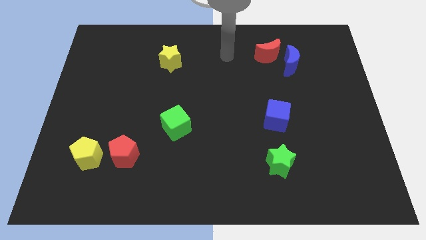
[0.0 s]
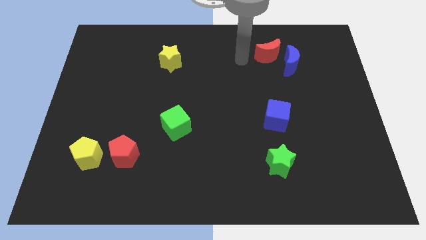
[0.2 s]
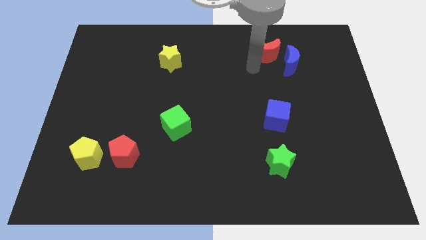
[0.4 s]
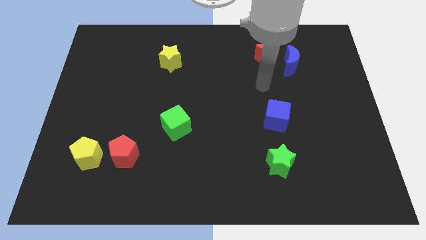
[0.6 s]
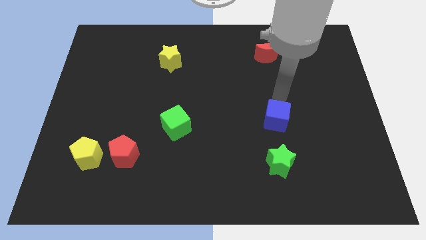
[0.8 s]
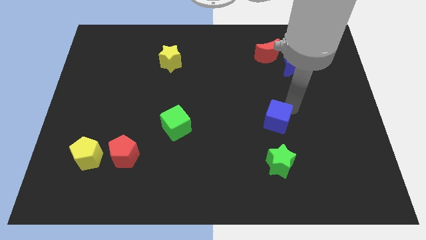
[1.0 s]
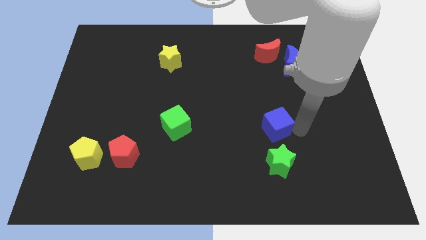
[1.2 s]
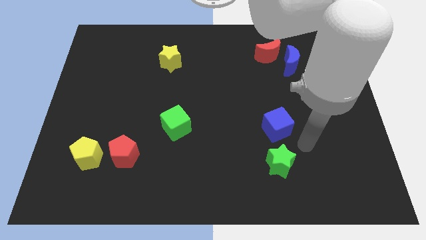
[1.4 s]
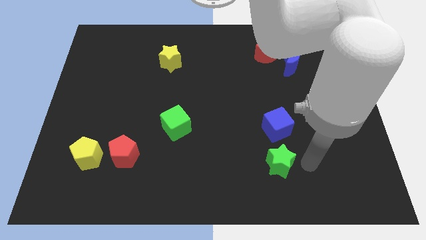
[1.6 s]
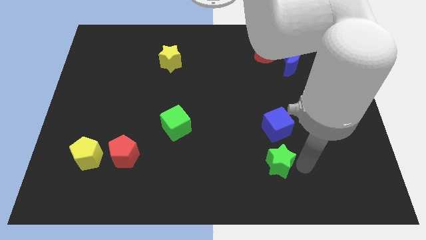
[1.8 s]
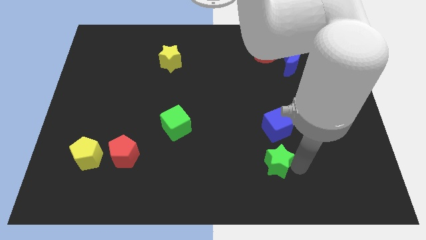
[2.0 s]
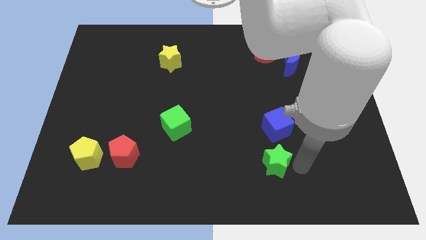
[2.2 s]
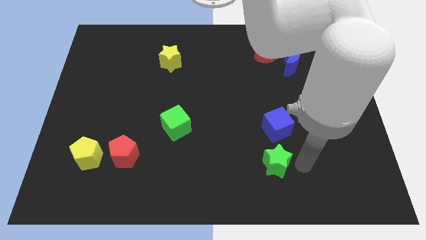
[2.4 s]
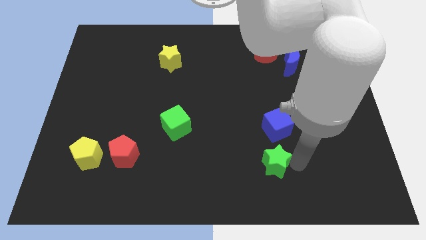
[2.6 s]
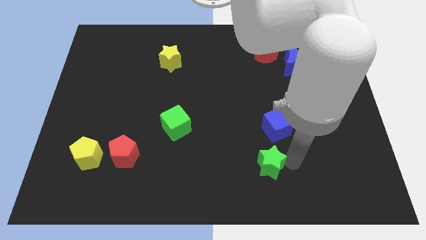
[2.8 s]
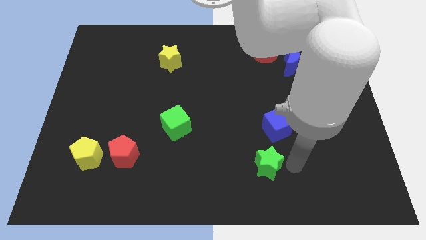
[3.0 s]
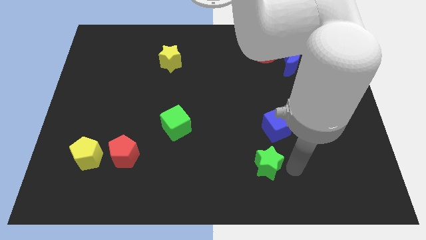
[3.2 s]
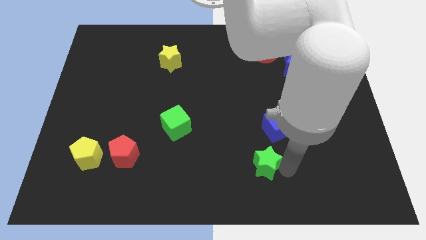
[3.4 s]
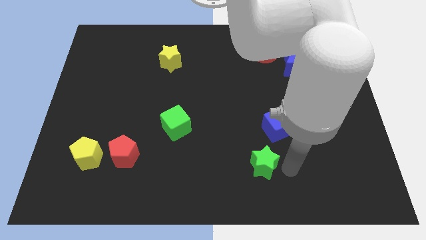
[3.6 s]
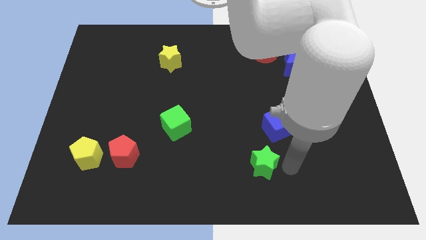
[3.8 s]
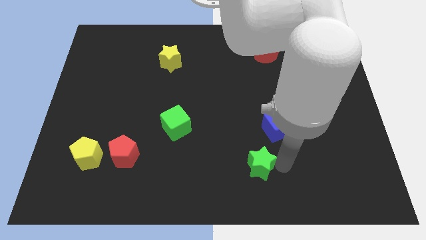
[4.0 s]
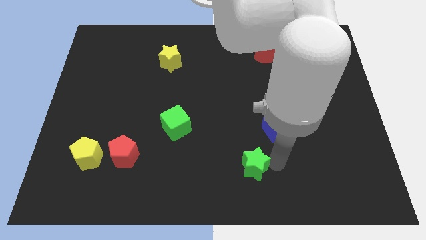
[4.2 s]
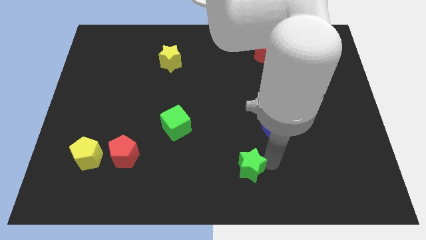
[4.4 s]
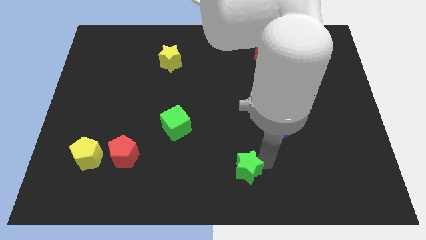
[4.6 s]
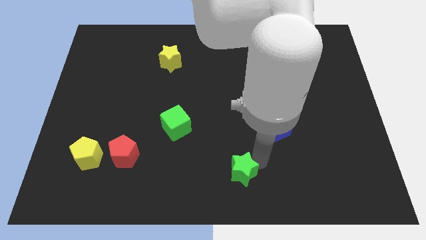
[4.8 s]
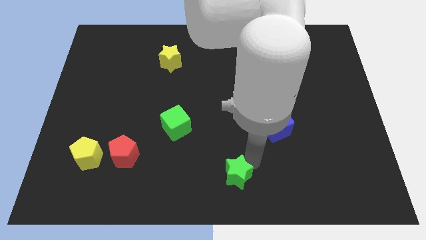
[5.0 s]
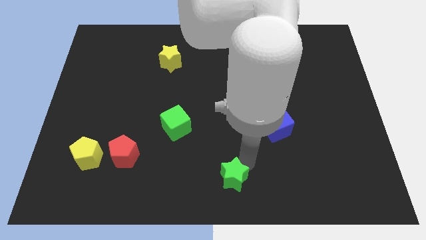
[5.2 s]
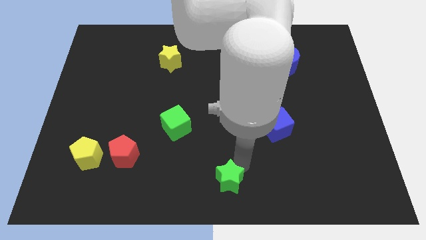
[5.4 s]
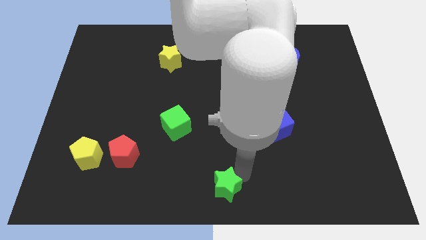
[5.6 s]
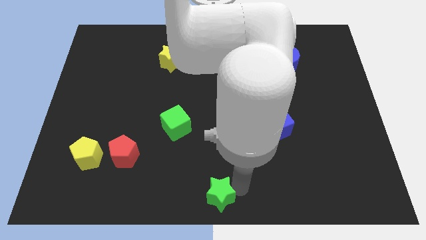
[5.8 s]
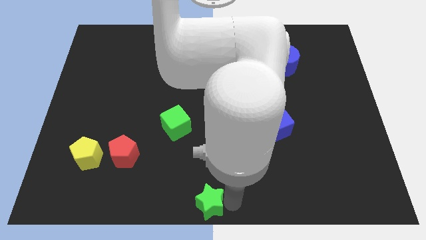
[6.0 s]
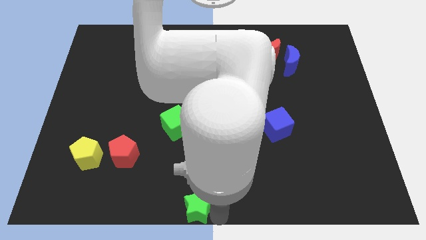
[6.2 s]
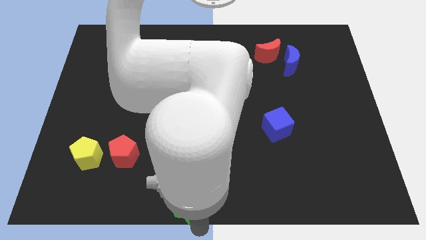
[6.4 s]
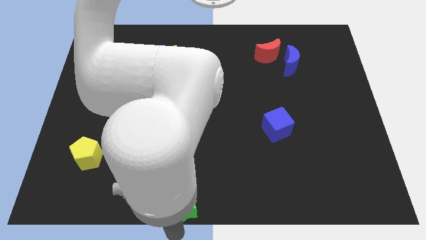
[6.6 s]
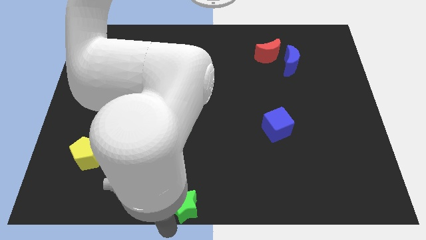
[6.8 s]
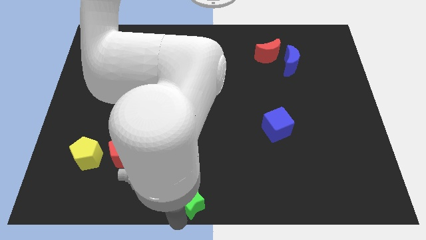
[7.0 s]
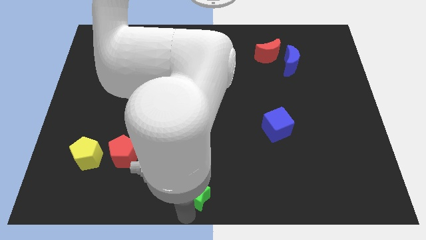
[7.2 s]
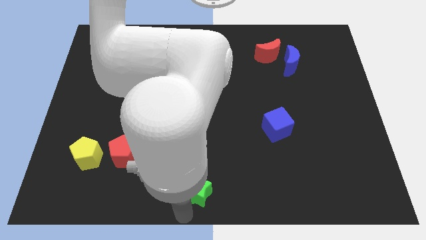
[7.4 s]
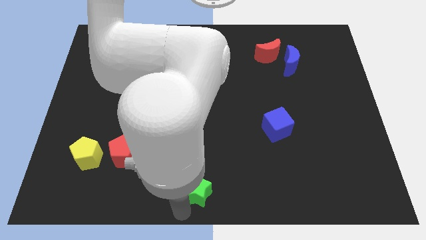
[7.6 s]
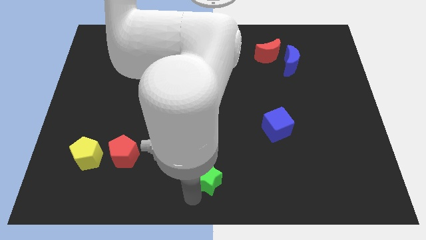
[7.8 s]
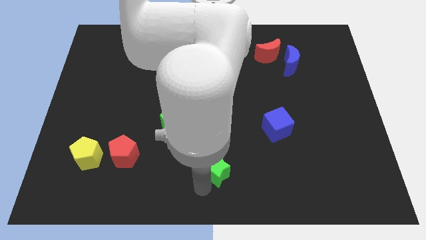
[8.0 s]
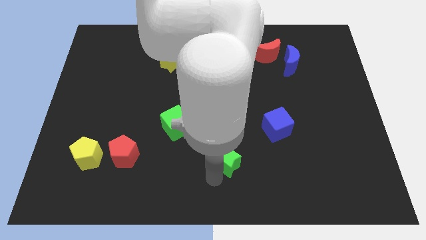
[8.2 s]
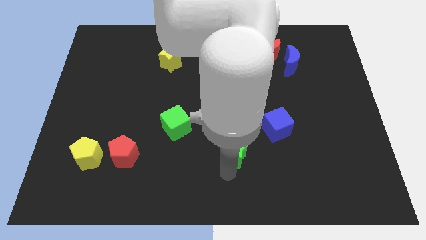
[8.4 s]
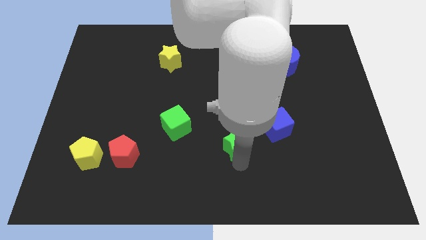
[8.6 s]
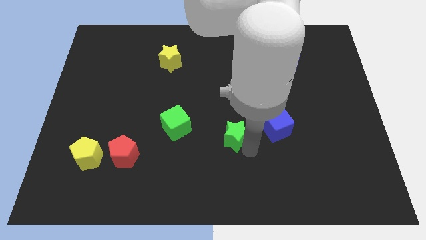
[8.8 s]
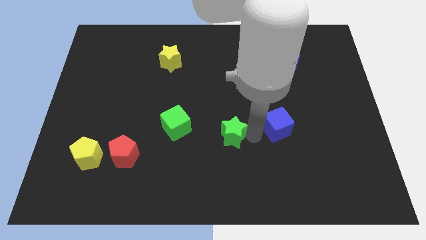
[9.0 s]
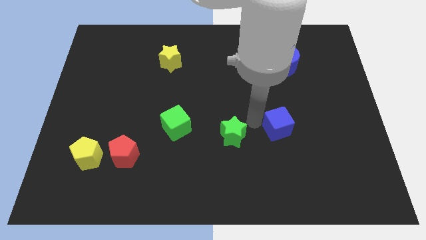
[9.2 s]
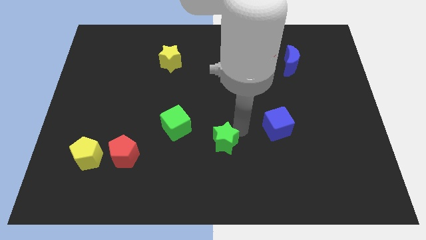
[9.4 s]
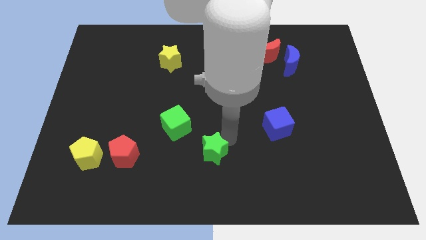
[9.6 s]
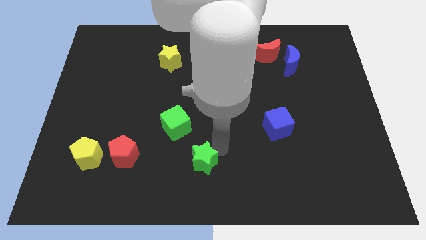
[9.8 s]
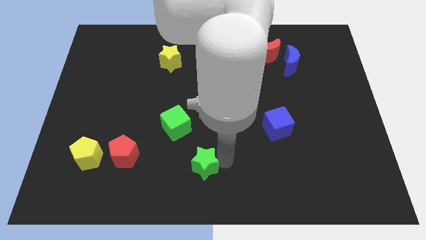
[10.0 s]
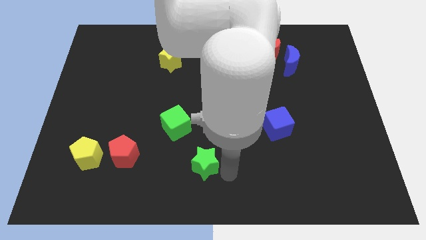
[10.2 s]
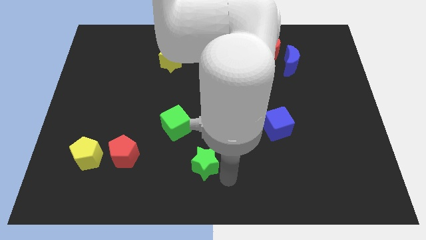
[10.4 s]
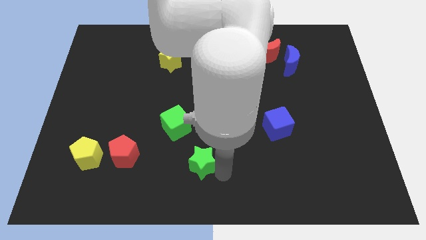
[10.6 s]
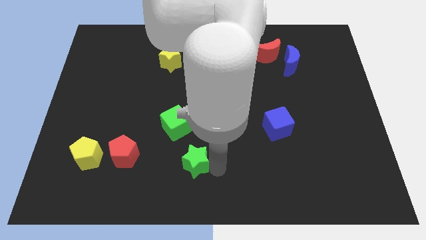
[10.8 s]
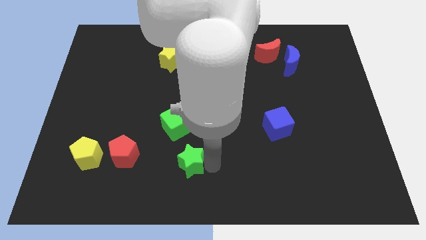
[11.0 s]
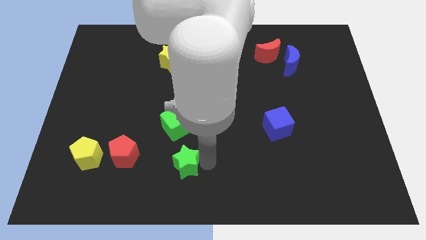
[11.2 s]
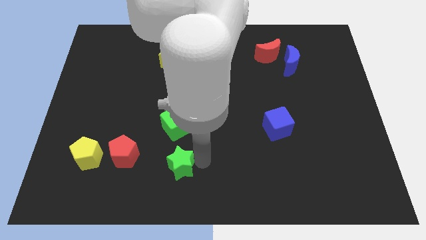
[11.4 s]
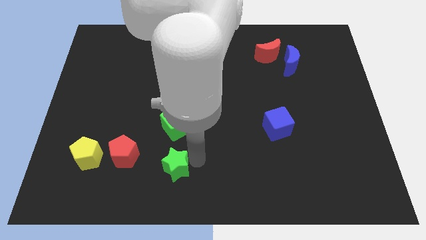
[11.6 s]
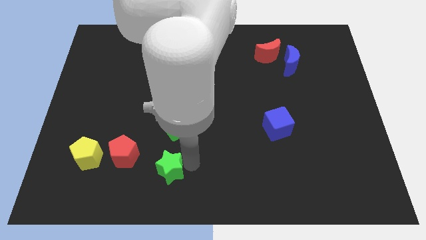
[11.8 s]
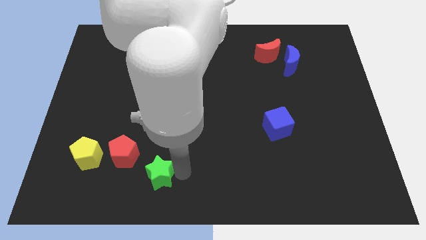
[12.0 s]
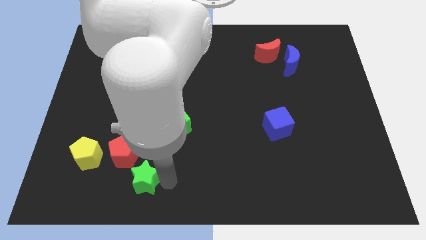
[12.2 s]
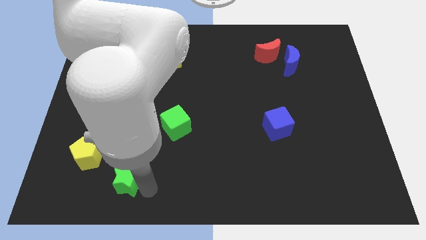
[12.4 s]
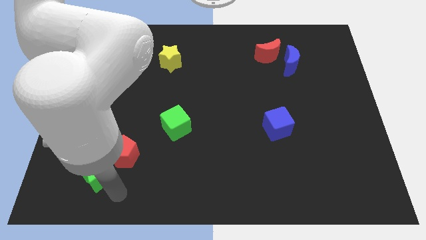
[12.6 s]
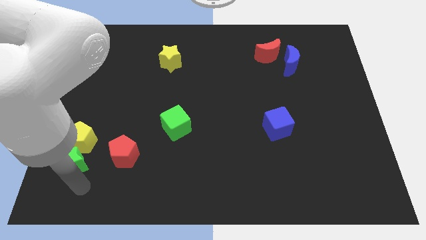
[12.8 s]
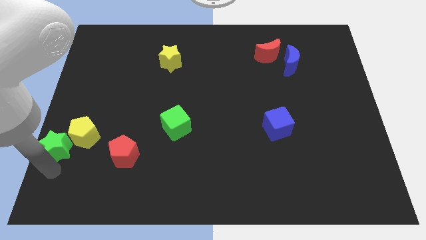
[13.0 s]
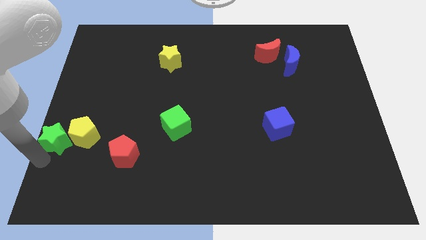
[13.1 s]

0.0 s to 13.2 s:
move the green star to the left side of the board

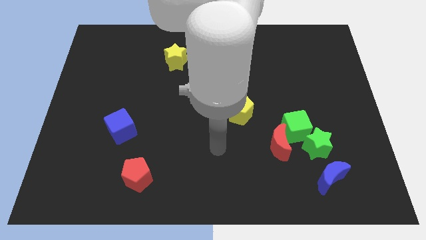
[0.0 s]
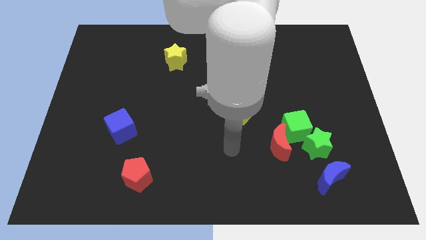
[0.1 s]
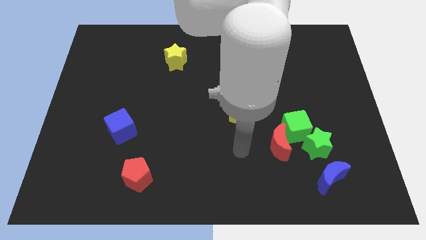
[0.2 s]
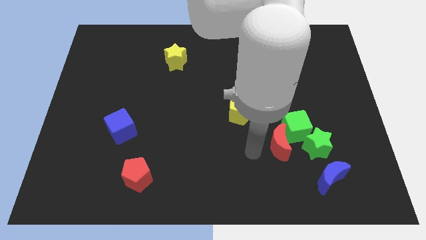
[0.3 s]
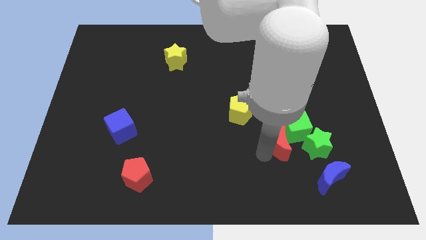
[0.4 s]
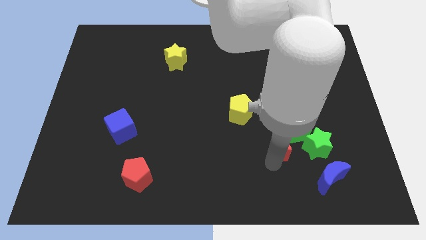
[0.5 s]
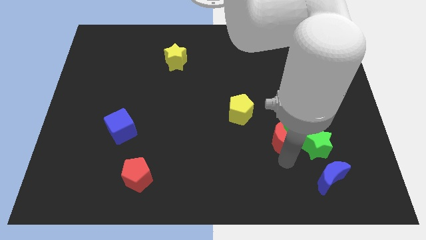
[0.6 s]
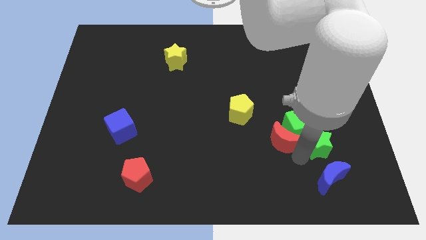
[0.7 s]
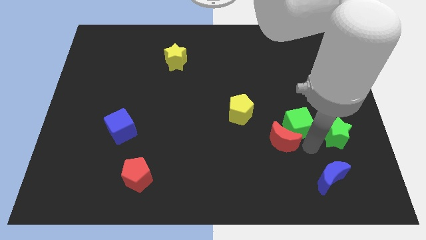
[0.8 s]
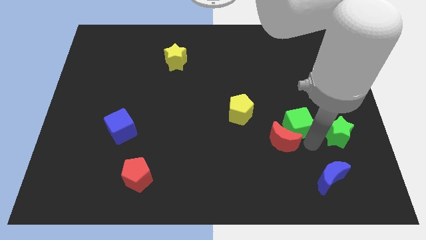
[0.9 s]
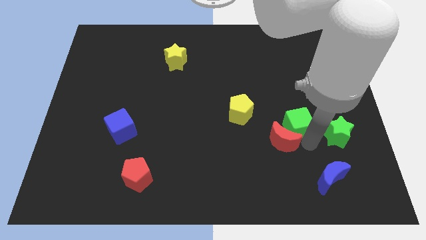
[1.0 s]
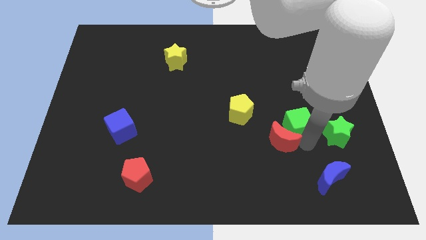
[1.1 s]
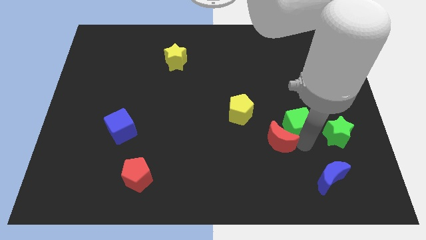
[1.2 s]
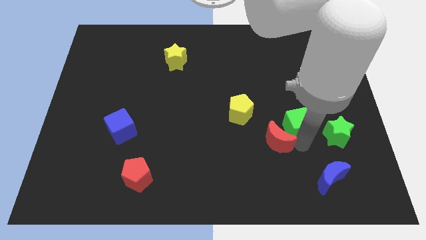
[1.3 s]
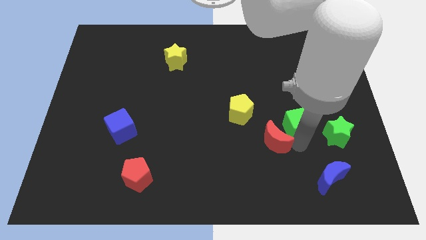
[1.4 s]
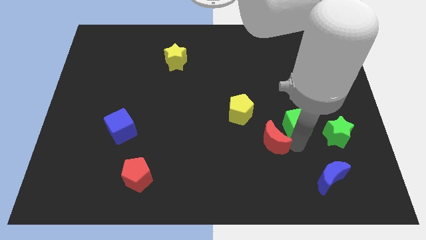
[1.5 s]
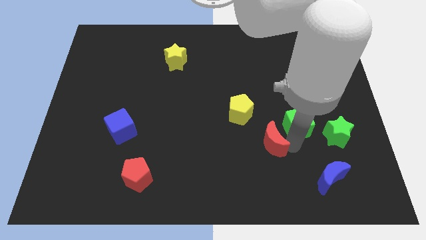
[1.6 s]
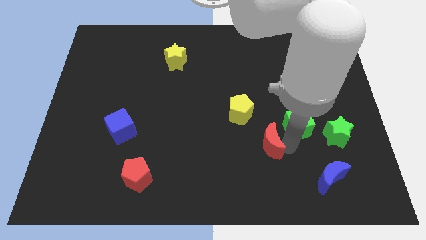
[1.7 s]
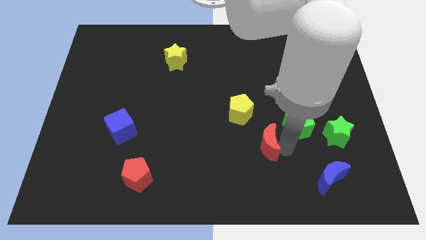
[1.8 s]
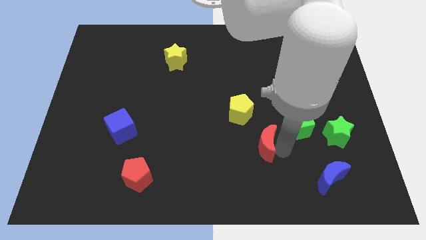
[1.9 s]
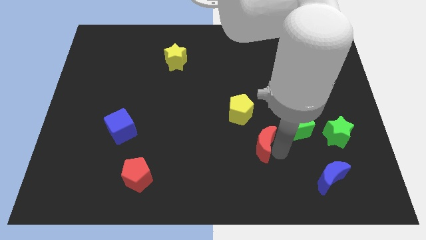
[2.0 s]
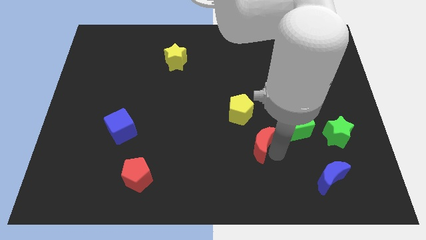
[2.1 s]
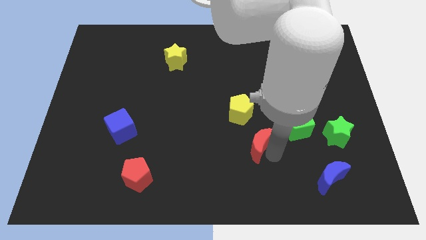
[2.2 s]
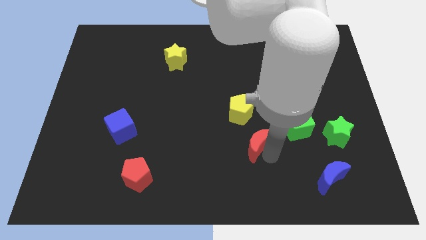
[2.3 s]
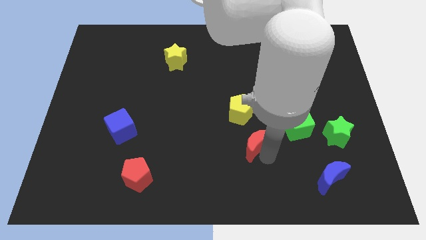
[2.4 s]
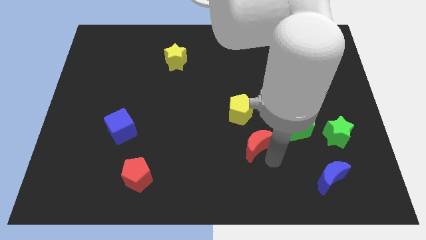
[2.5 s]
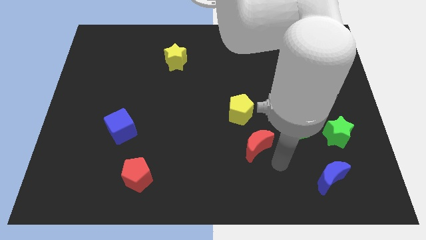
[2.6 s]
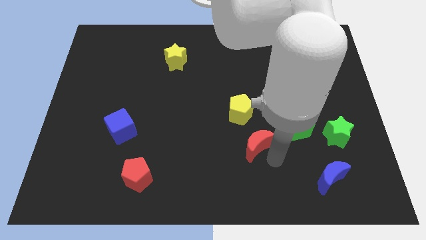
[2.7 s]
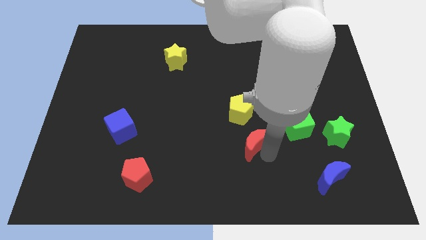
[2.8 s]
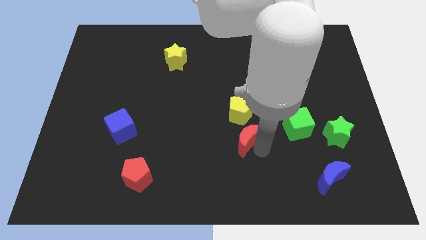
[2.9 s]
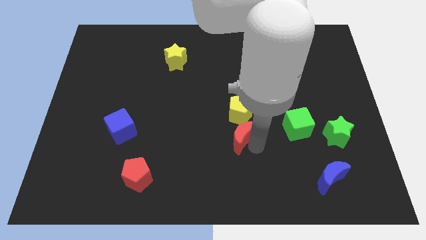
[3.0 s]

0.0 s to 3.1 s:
move the red moon to the middle of the board
